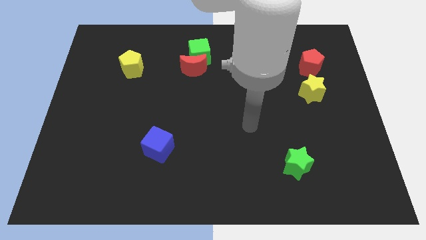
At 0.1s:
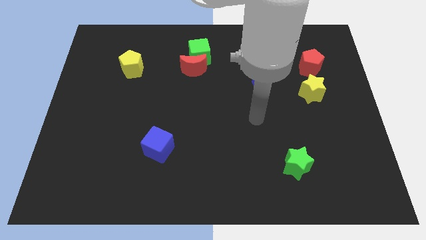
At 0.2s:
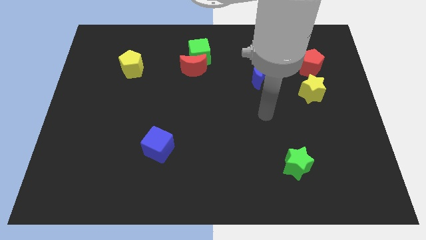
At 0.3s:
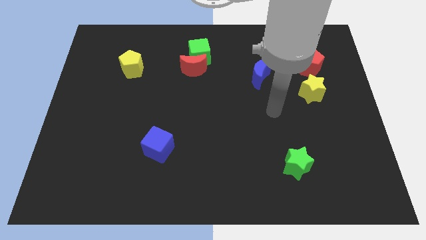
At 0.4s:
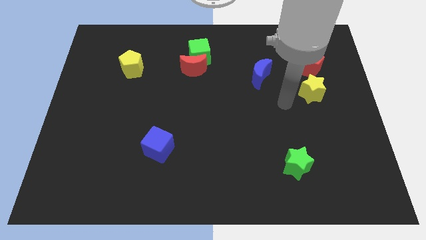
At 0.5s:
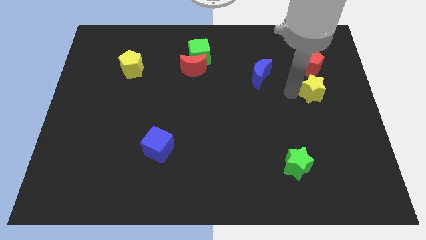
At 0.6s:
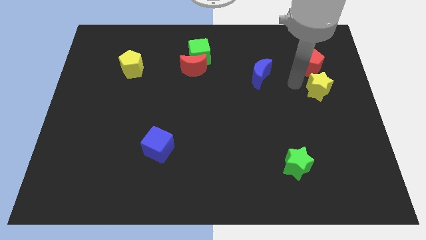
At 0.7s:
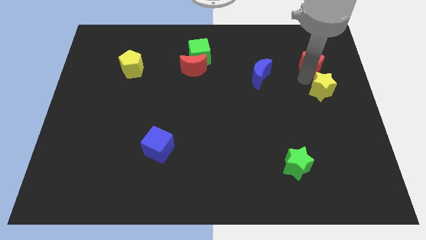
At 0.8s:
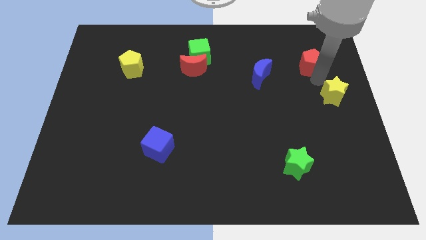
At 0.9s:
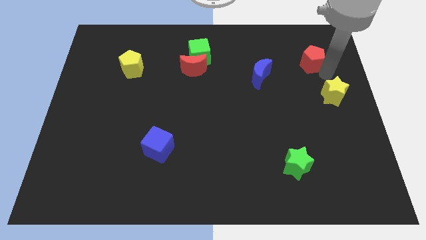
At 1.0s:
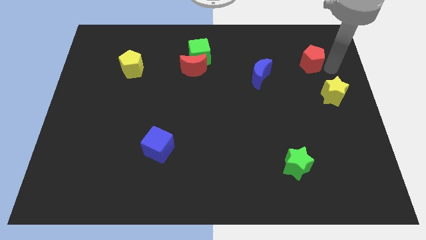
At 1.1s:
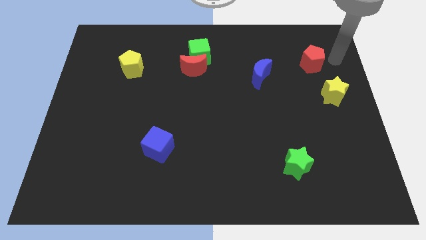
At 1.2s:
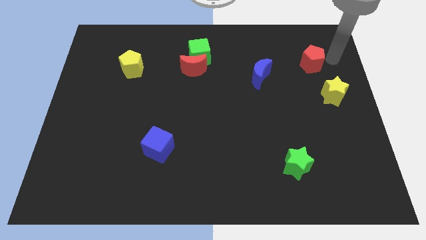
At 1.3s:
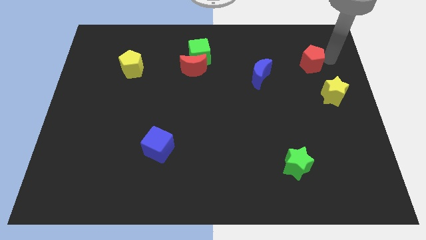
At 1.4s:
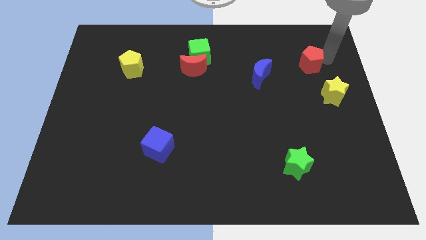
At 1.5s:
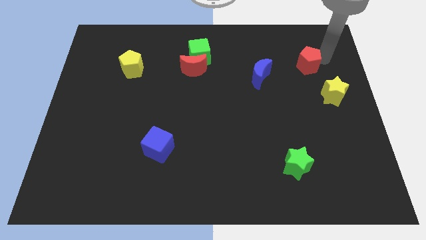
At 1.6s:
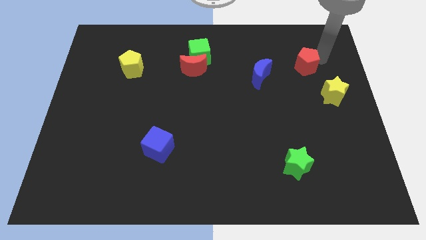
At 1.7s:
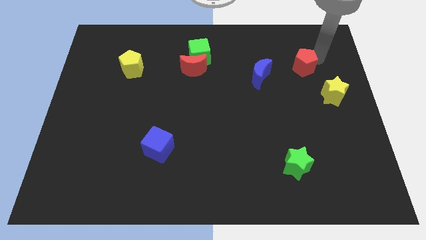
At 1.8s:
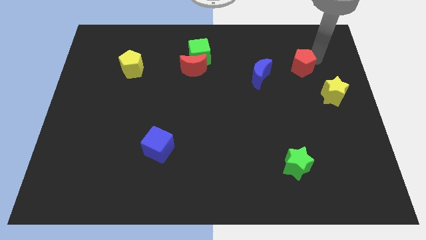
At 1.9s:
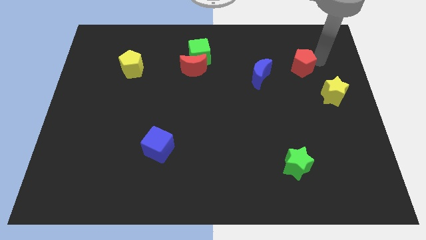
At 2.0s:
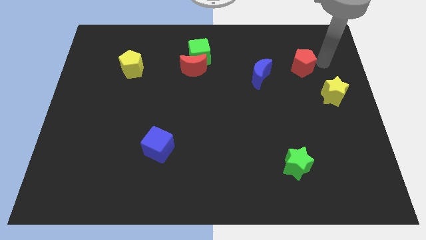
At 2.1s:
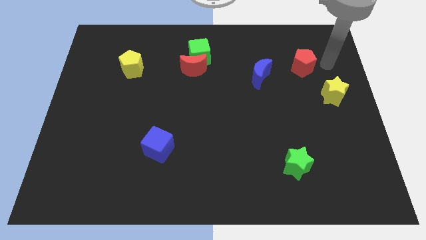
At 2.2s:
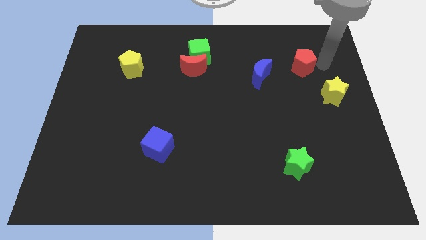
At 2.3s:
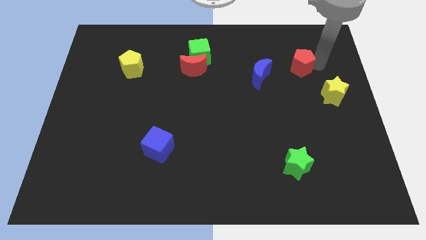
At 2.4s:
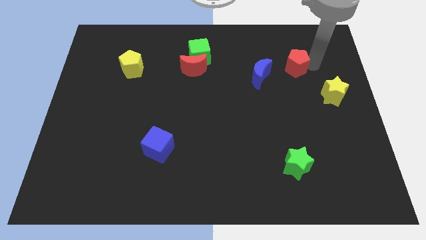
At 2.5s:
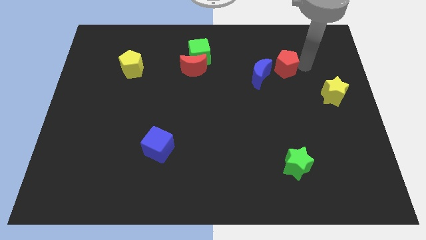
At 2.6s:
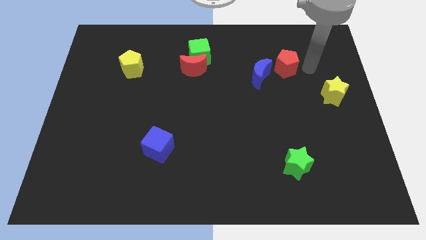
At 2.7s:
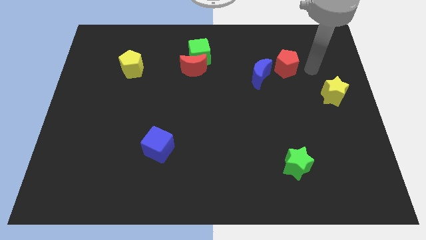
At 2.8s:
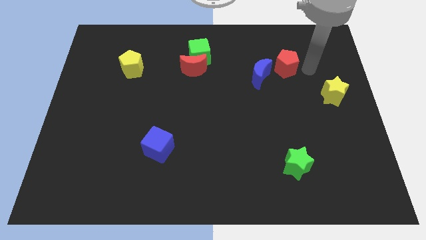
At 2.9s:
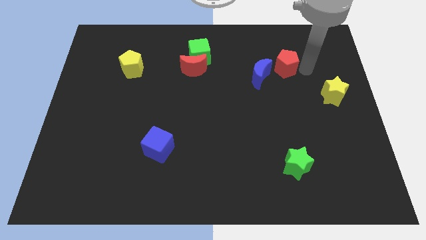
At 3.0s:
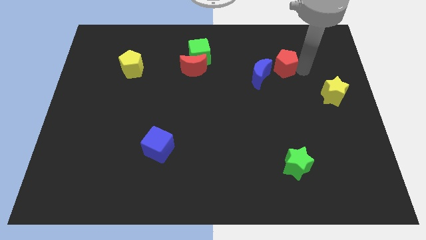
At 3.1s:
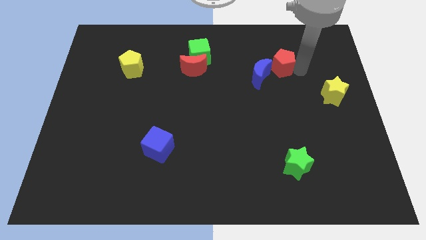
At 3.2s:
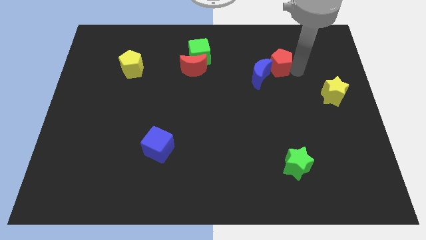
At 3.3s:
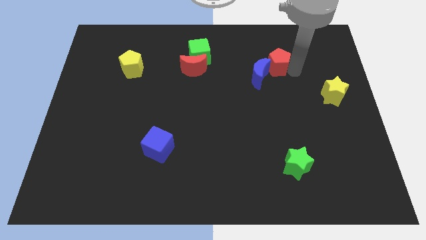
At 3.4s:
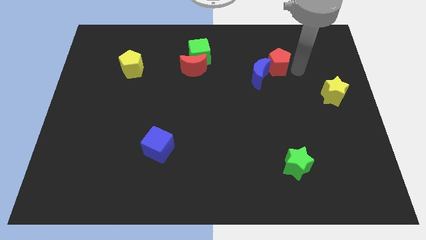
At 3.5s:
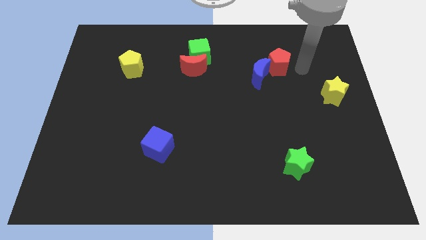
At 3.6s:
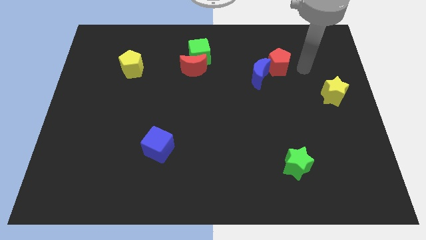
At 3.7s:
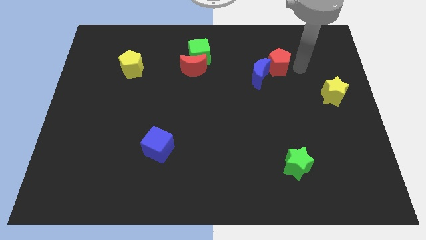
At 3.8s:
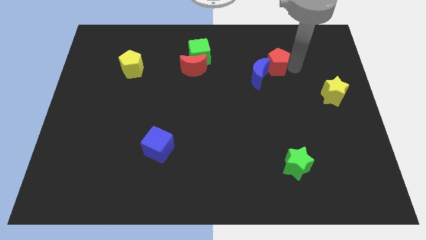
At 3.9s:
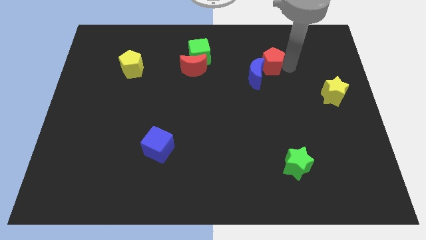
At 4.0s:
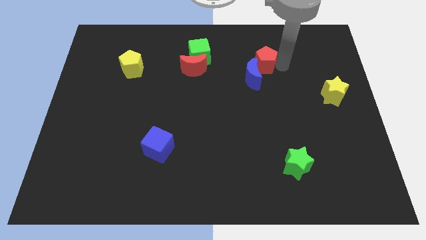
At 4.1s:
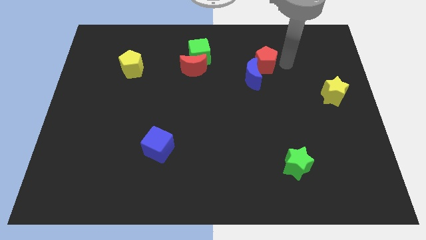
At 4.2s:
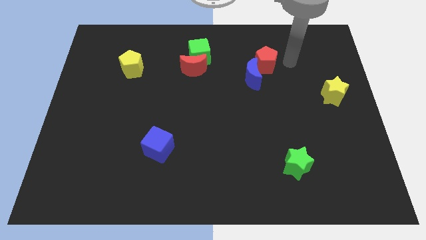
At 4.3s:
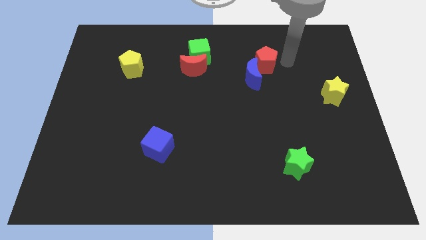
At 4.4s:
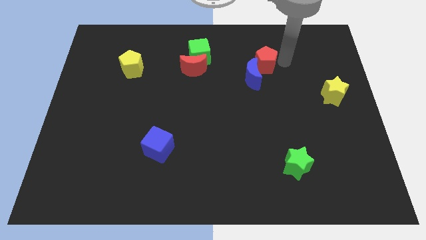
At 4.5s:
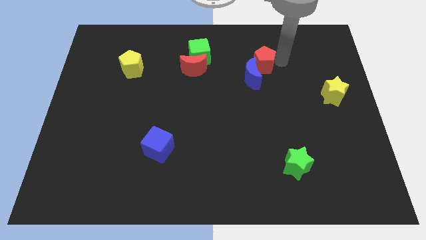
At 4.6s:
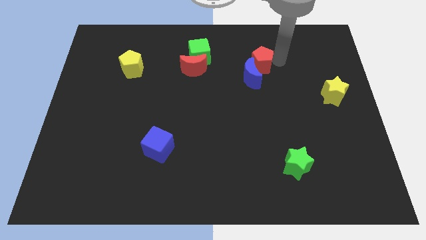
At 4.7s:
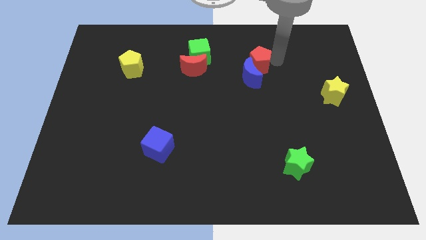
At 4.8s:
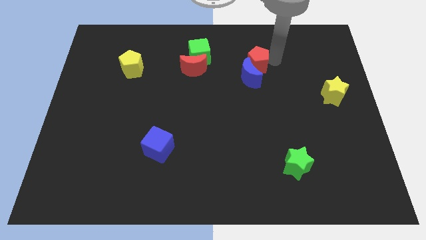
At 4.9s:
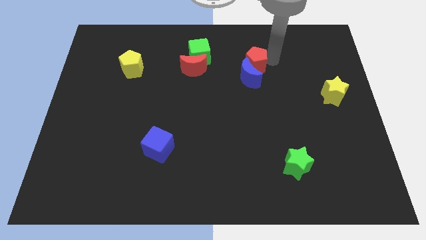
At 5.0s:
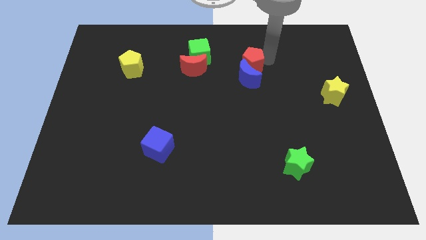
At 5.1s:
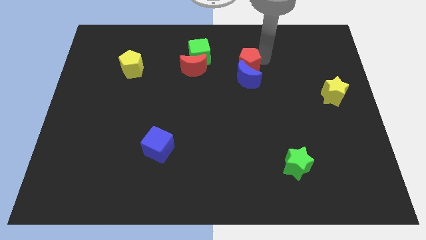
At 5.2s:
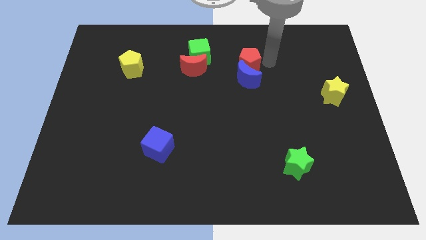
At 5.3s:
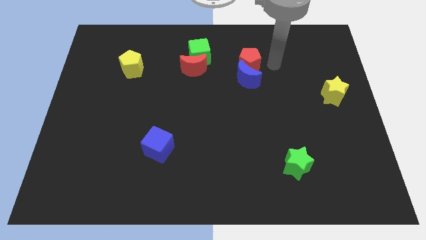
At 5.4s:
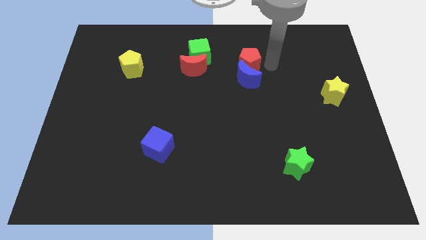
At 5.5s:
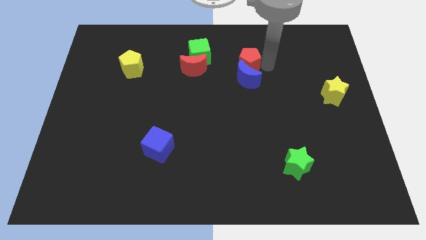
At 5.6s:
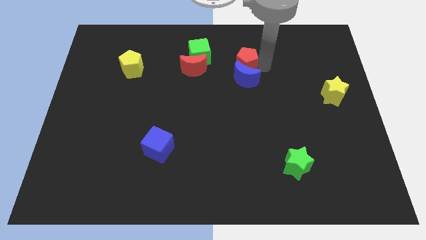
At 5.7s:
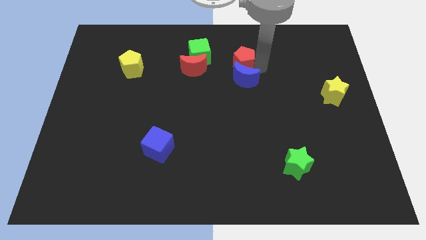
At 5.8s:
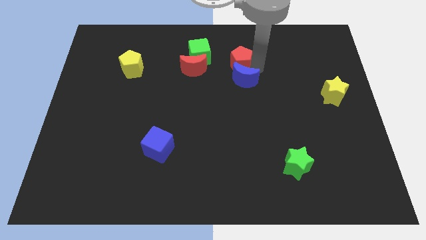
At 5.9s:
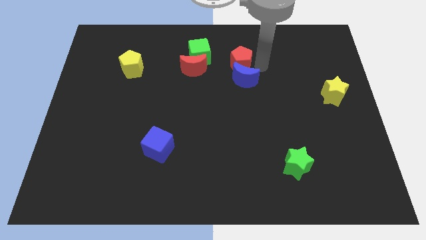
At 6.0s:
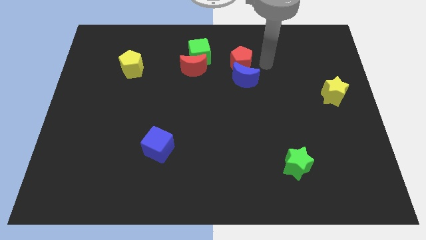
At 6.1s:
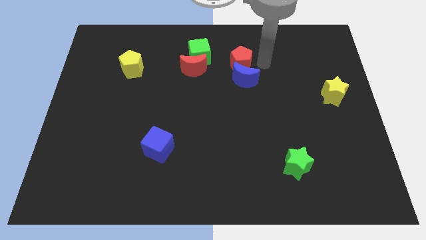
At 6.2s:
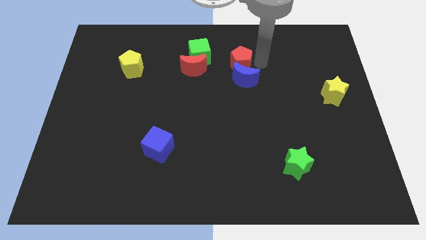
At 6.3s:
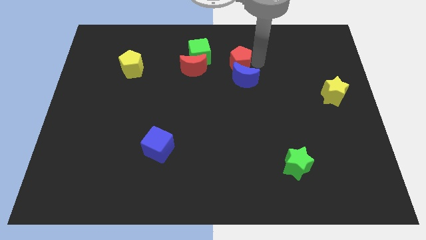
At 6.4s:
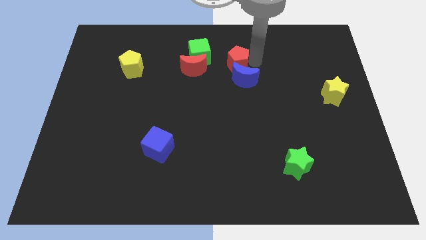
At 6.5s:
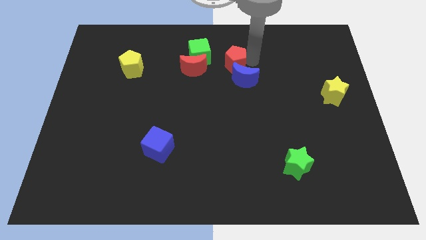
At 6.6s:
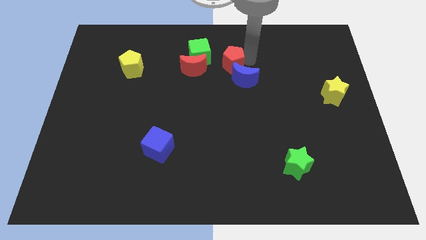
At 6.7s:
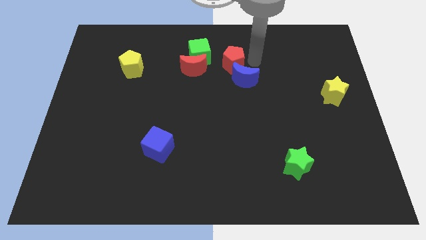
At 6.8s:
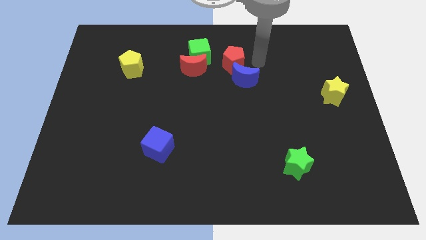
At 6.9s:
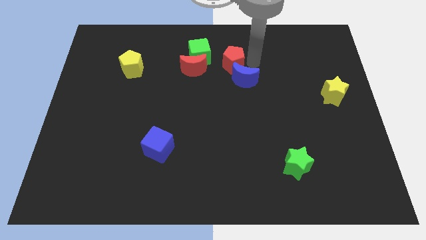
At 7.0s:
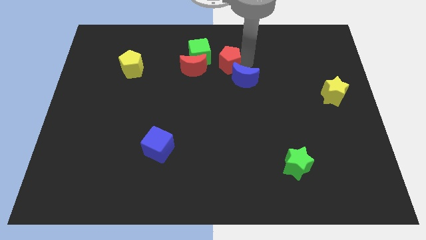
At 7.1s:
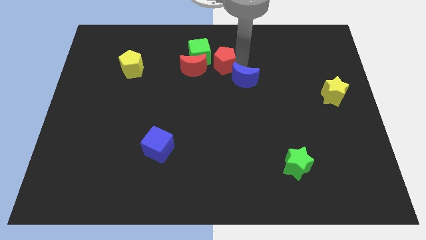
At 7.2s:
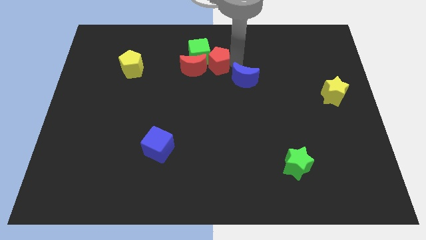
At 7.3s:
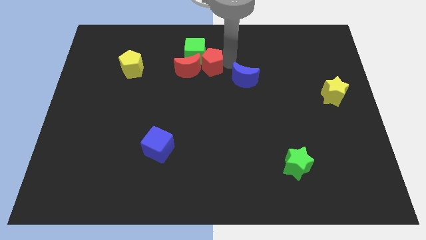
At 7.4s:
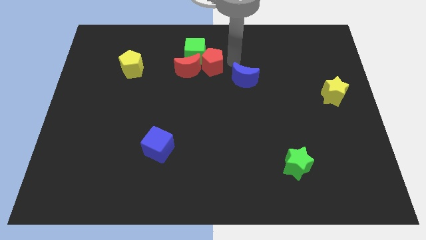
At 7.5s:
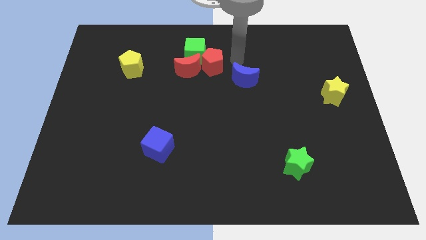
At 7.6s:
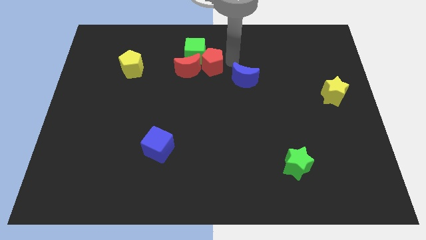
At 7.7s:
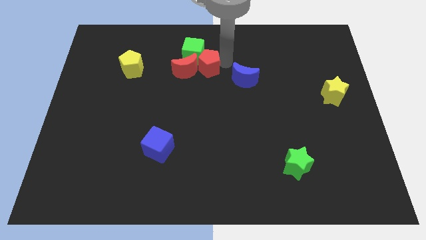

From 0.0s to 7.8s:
push the red pentagon to the red moon
